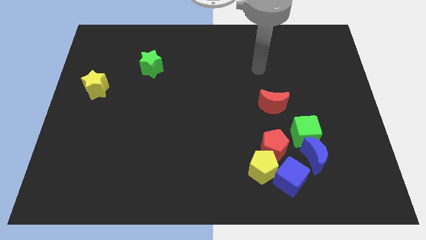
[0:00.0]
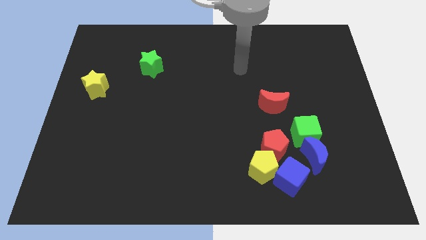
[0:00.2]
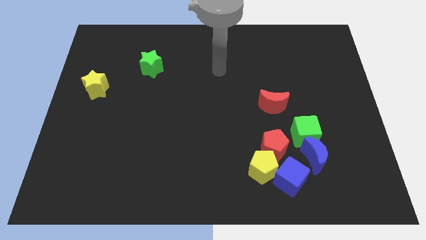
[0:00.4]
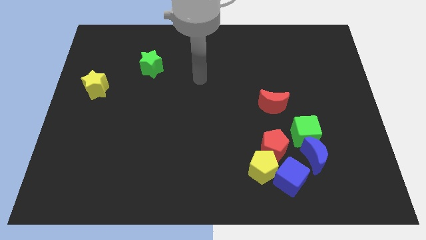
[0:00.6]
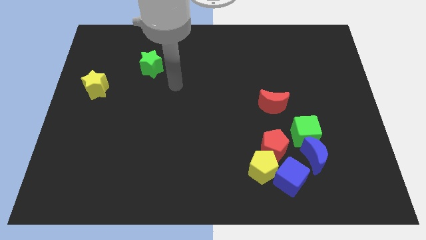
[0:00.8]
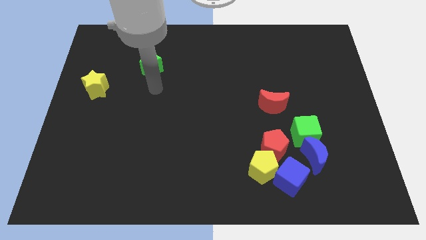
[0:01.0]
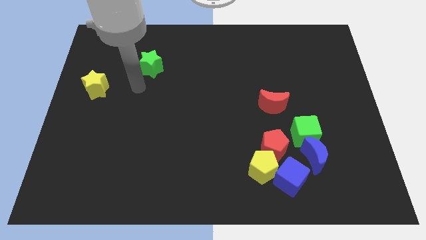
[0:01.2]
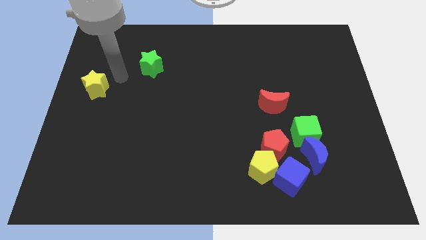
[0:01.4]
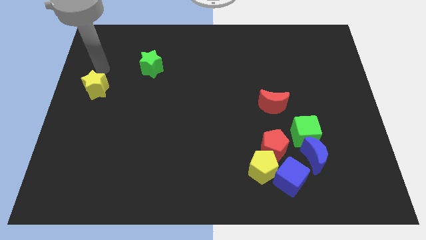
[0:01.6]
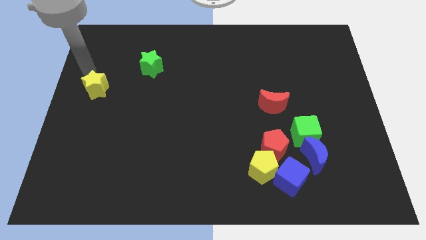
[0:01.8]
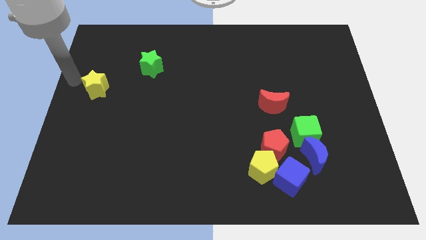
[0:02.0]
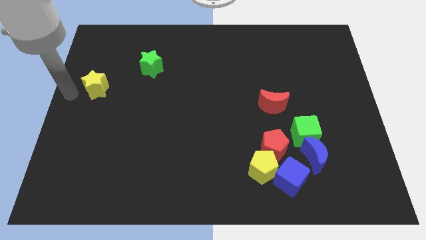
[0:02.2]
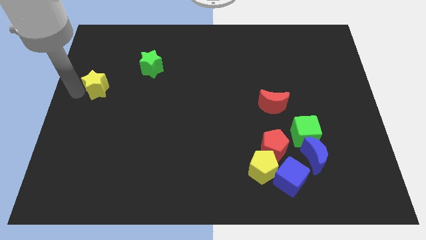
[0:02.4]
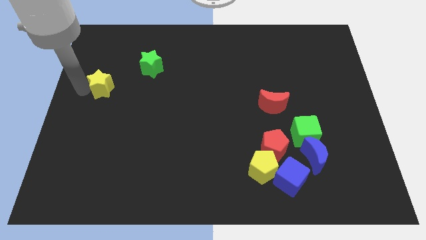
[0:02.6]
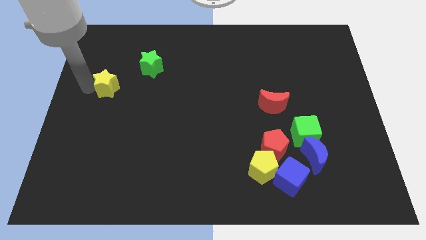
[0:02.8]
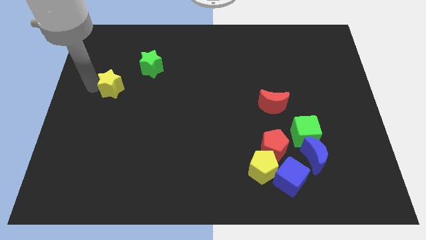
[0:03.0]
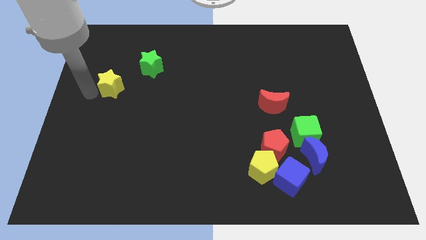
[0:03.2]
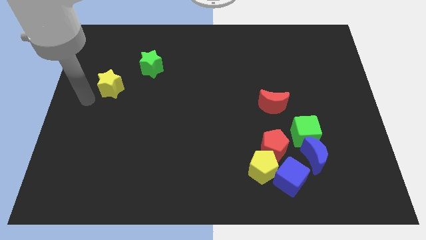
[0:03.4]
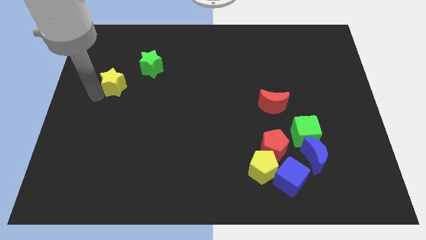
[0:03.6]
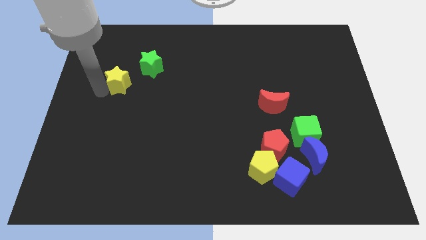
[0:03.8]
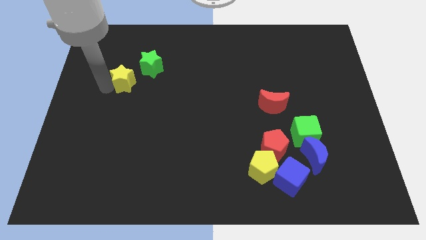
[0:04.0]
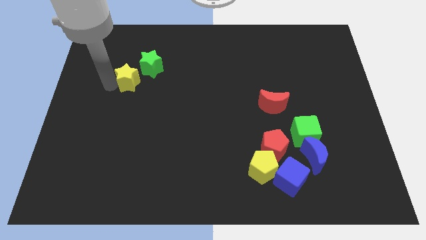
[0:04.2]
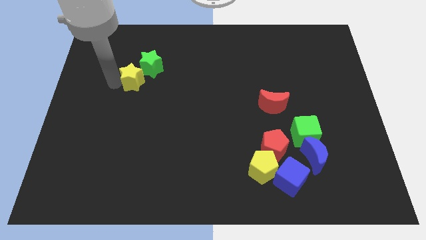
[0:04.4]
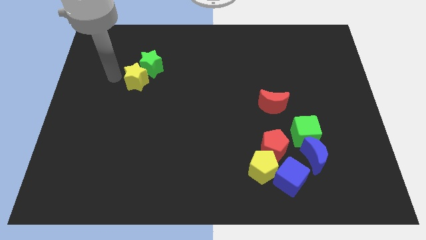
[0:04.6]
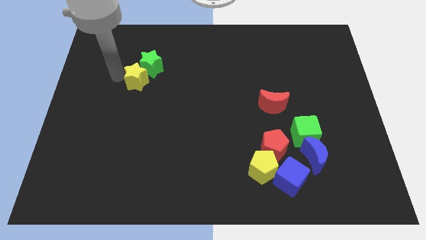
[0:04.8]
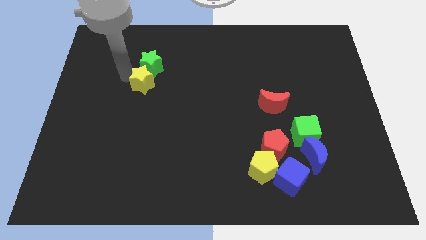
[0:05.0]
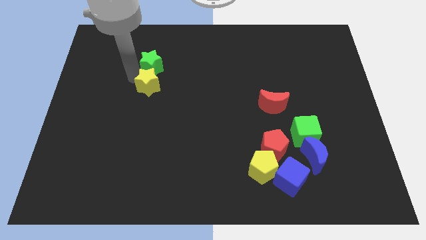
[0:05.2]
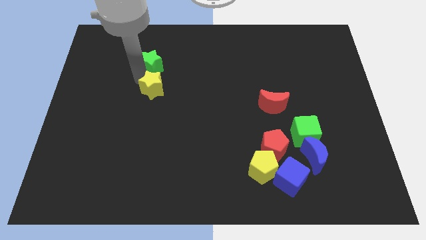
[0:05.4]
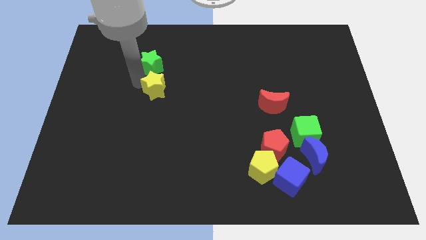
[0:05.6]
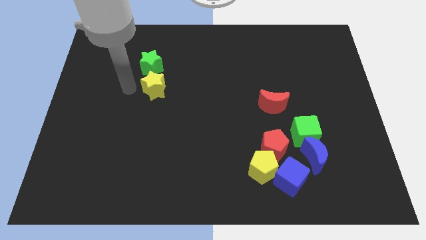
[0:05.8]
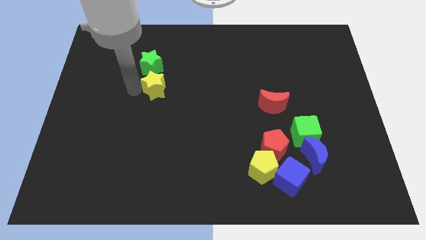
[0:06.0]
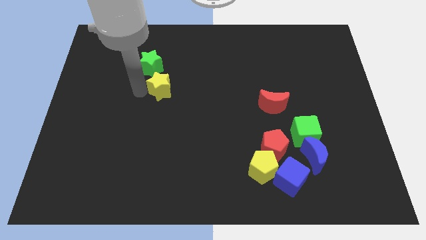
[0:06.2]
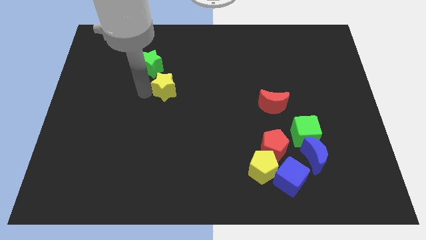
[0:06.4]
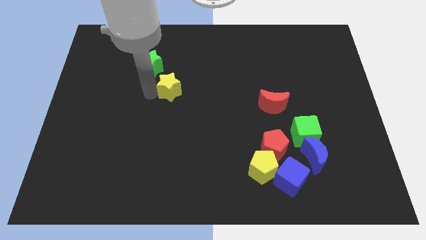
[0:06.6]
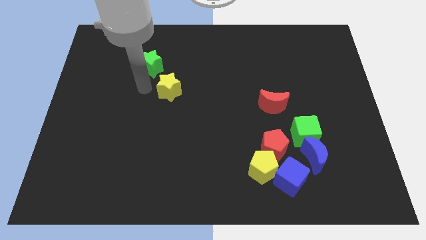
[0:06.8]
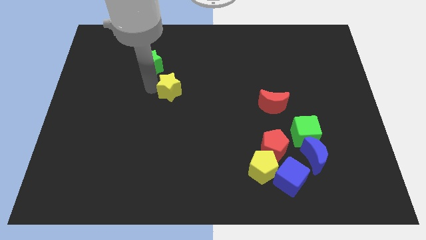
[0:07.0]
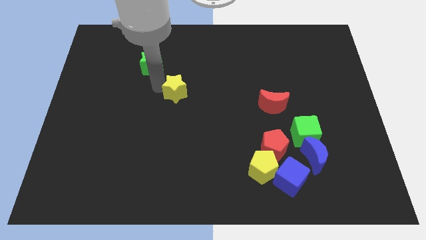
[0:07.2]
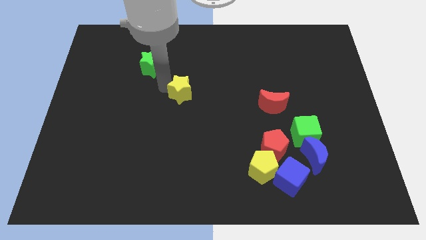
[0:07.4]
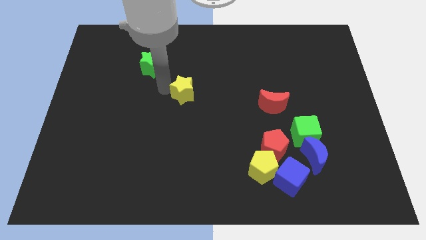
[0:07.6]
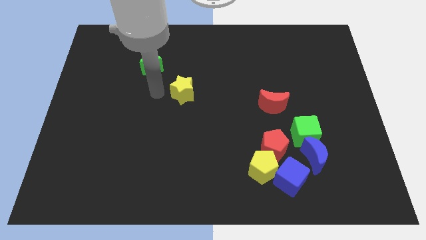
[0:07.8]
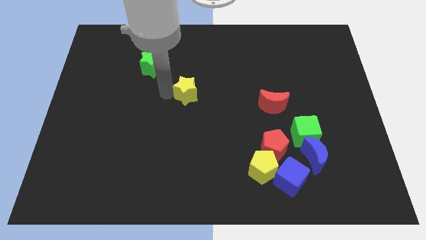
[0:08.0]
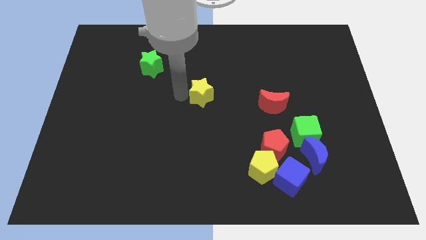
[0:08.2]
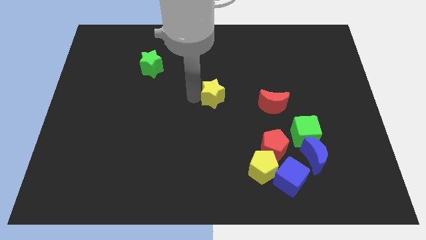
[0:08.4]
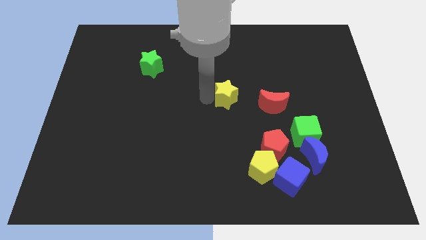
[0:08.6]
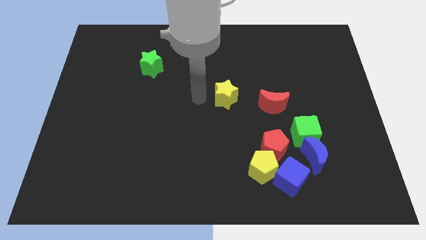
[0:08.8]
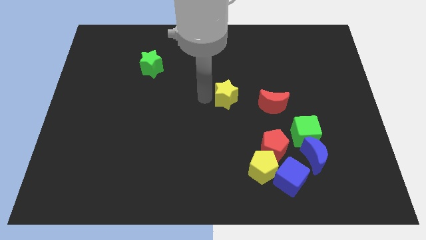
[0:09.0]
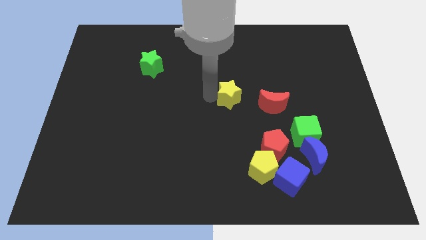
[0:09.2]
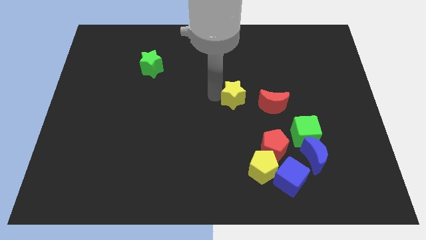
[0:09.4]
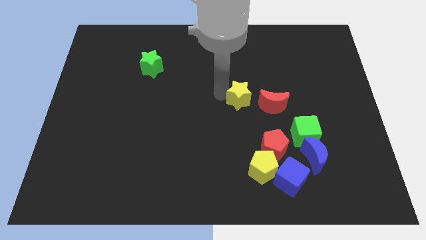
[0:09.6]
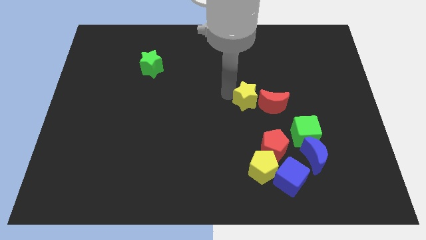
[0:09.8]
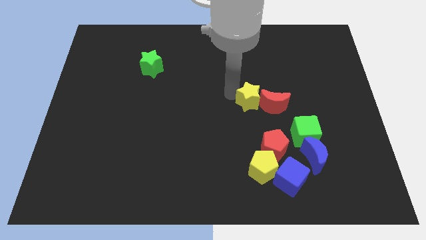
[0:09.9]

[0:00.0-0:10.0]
put the yellow star towards the red moon

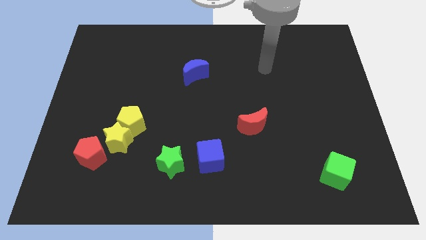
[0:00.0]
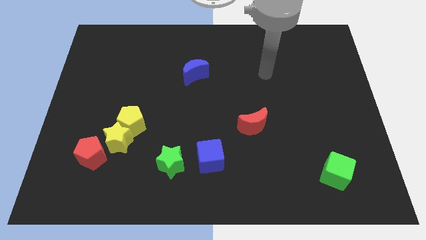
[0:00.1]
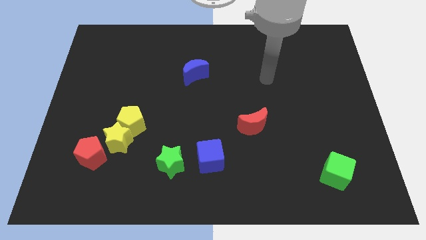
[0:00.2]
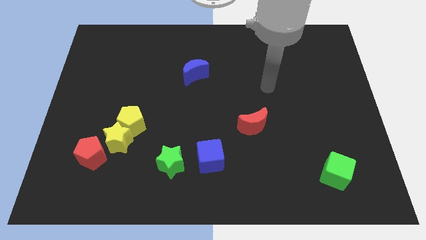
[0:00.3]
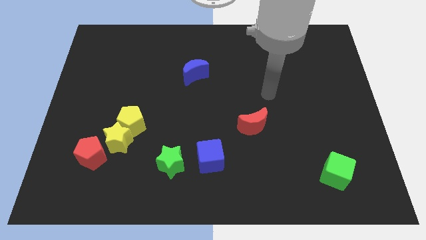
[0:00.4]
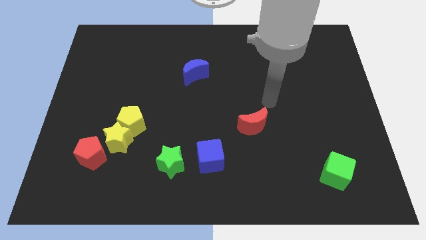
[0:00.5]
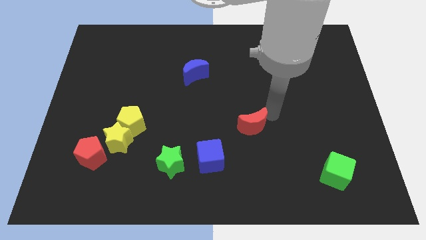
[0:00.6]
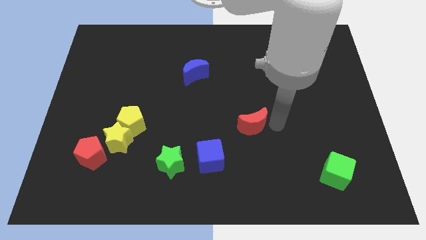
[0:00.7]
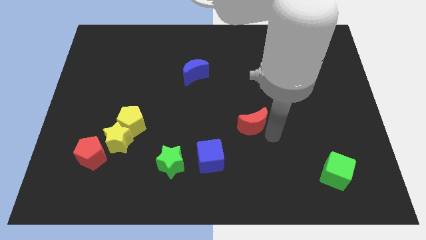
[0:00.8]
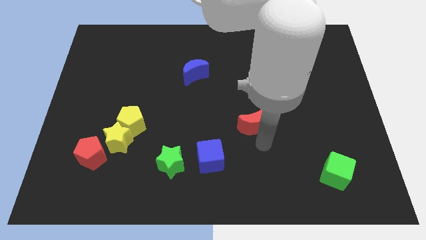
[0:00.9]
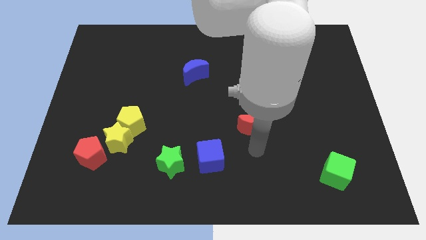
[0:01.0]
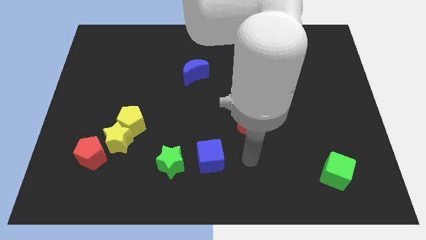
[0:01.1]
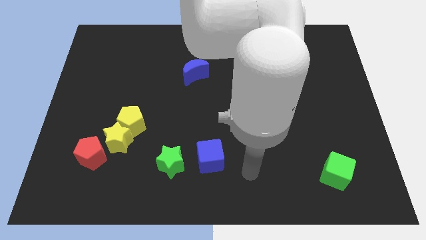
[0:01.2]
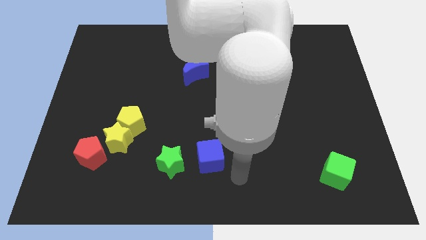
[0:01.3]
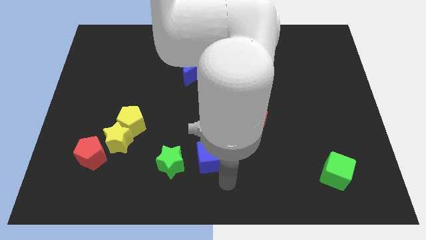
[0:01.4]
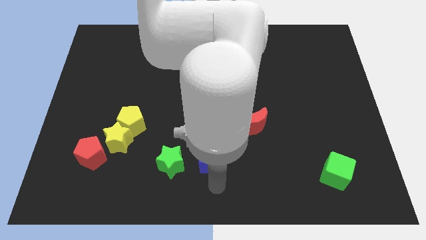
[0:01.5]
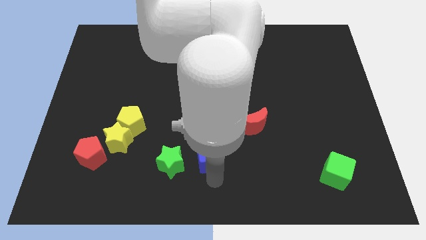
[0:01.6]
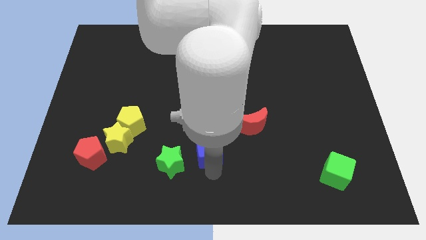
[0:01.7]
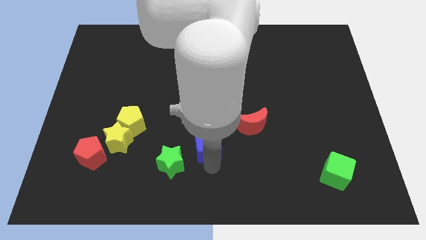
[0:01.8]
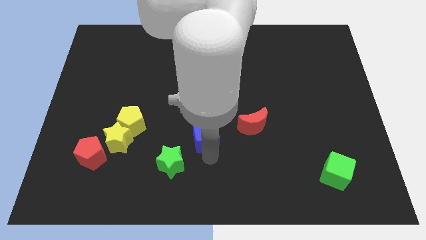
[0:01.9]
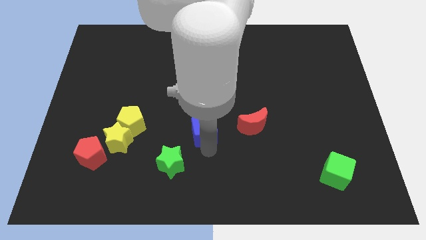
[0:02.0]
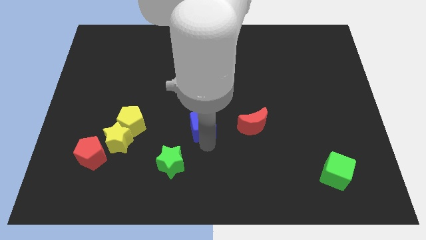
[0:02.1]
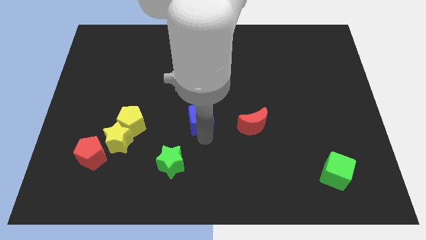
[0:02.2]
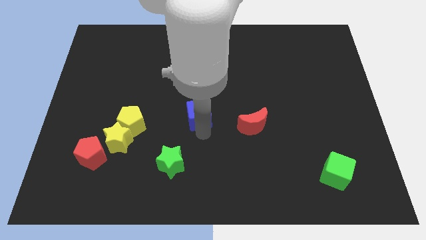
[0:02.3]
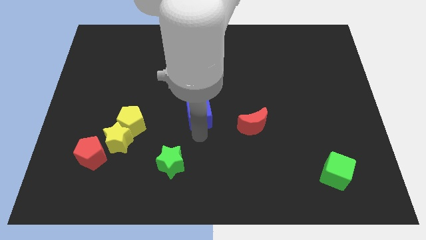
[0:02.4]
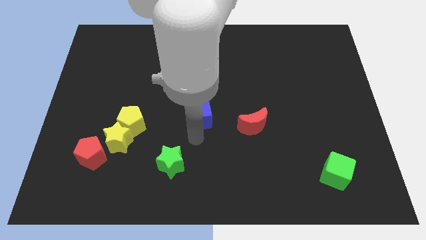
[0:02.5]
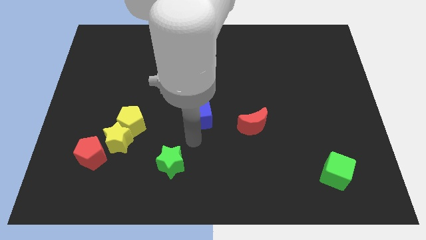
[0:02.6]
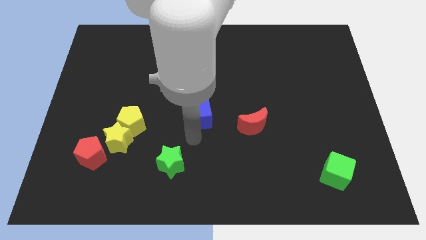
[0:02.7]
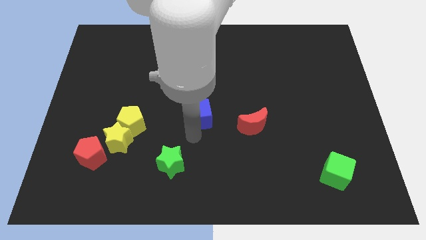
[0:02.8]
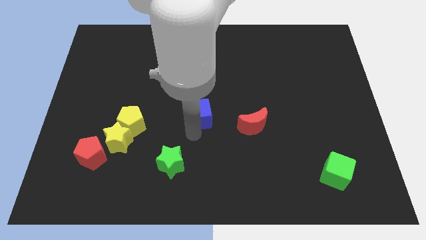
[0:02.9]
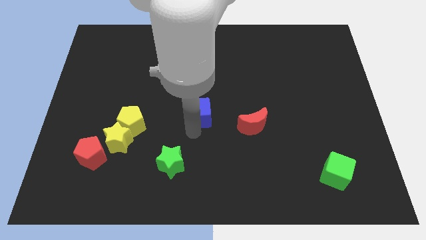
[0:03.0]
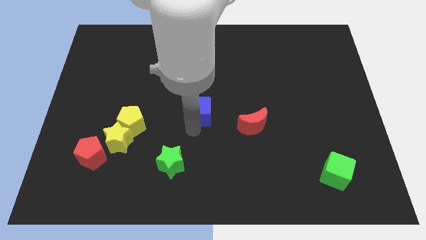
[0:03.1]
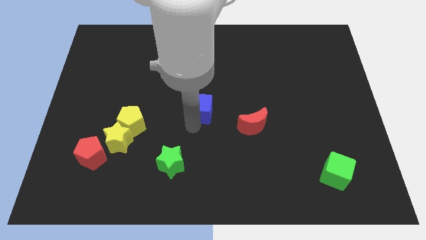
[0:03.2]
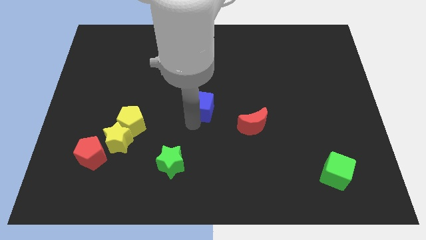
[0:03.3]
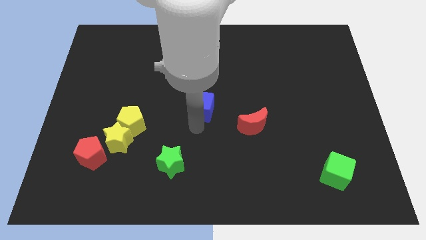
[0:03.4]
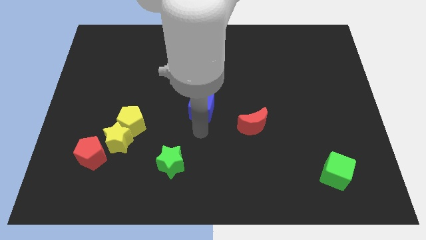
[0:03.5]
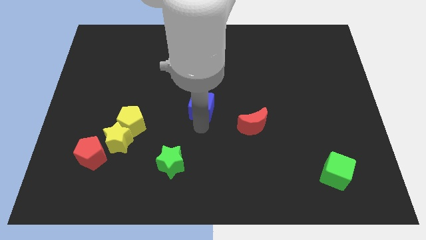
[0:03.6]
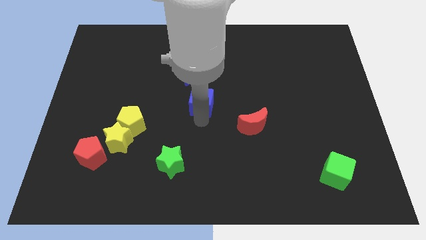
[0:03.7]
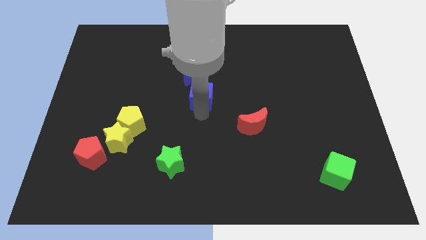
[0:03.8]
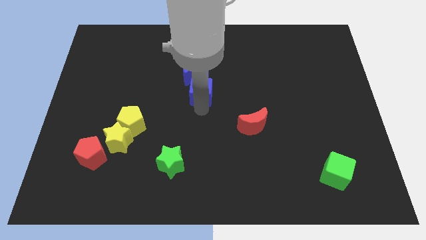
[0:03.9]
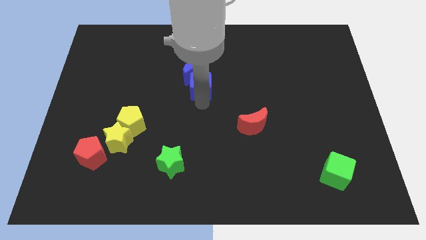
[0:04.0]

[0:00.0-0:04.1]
slide the blue cube close to the blue moon
